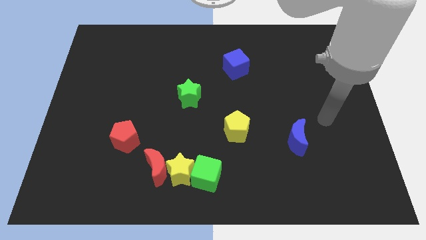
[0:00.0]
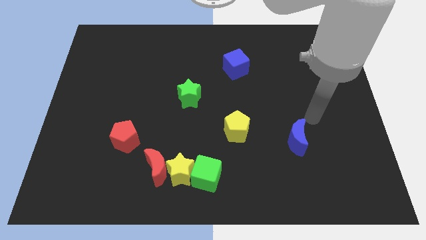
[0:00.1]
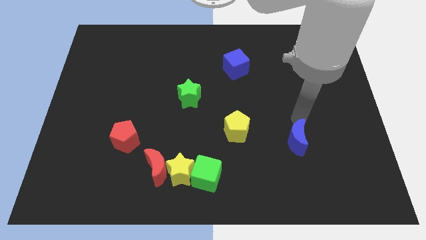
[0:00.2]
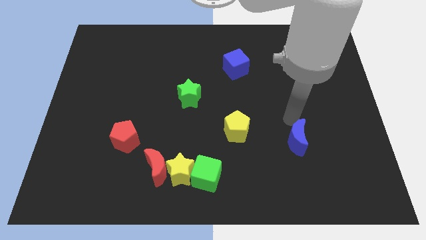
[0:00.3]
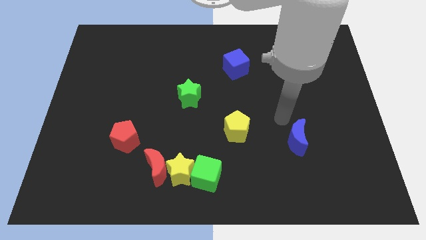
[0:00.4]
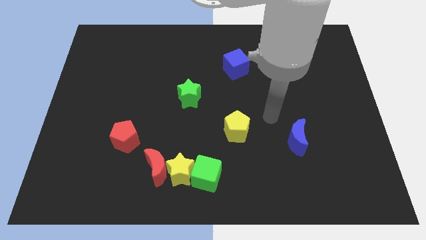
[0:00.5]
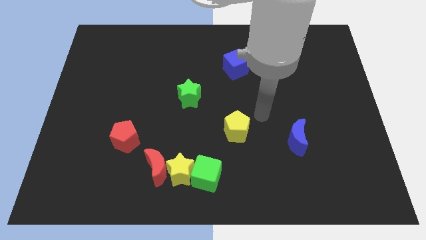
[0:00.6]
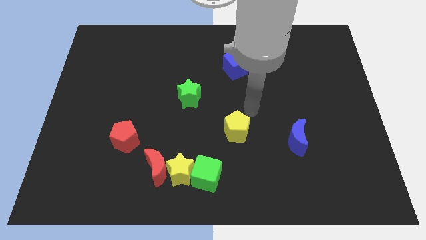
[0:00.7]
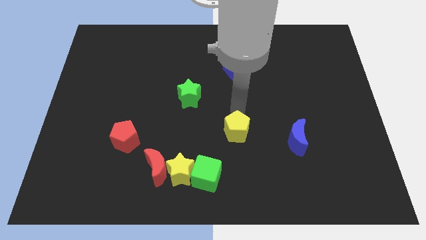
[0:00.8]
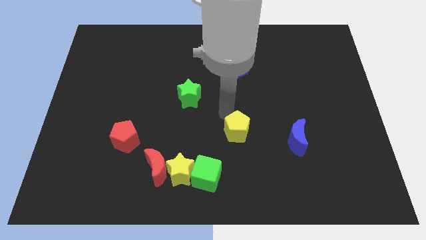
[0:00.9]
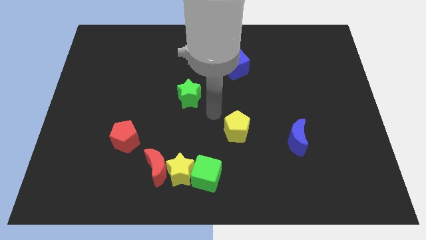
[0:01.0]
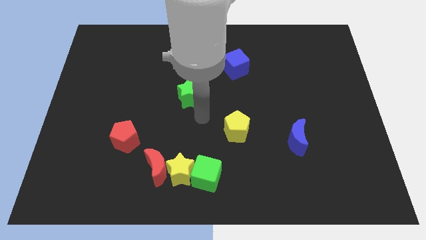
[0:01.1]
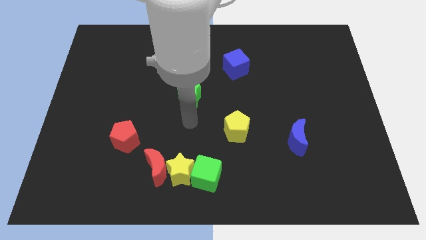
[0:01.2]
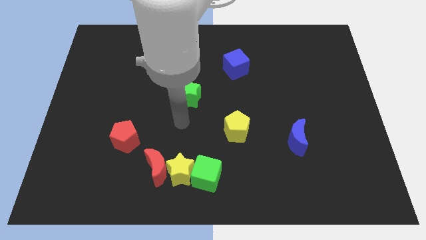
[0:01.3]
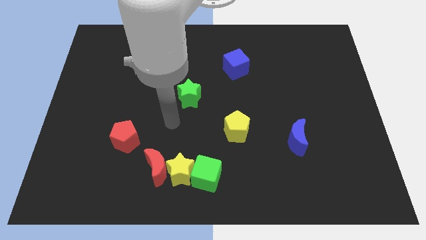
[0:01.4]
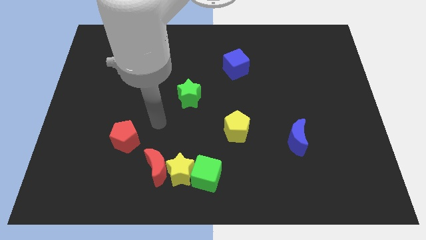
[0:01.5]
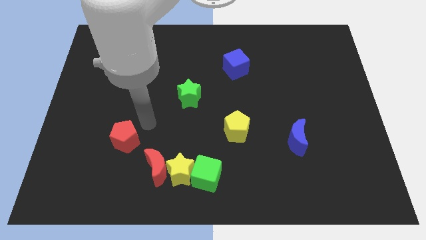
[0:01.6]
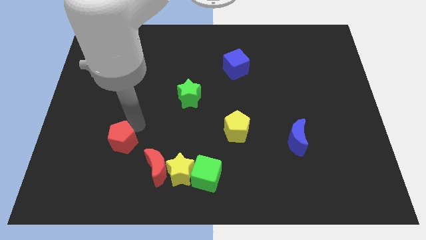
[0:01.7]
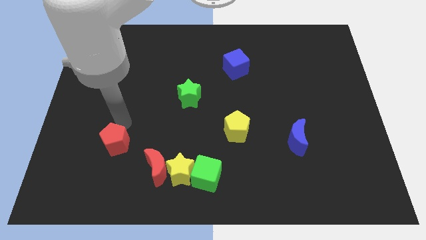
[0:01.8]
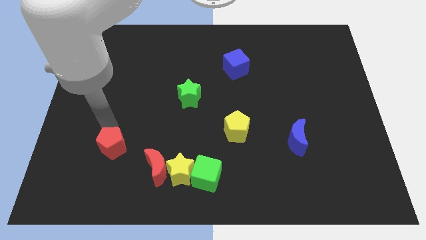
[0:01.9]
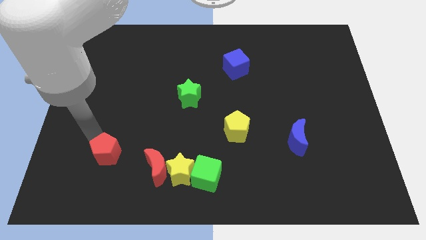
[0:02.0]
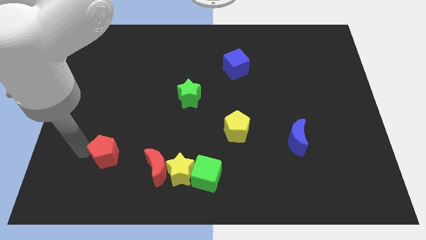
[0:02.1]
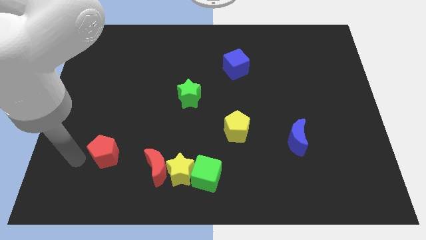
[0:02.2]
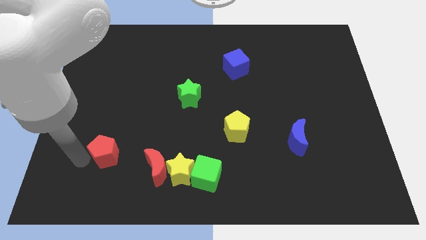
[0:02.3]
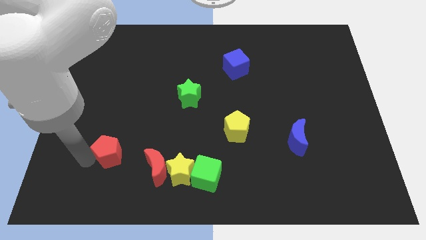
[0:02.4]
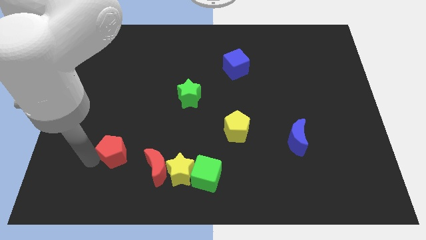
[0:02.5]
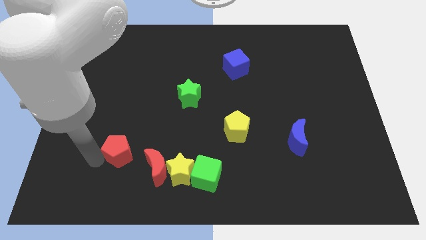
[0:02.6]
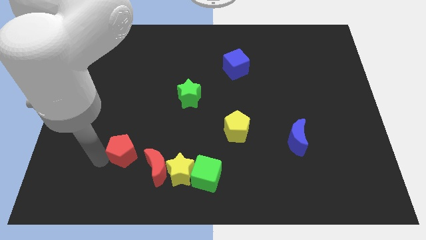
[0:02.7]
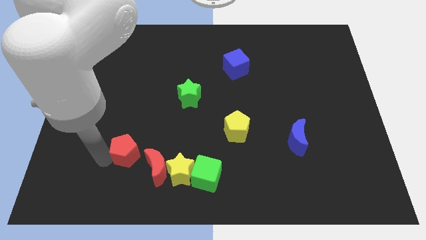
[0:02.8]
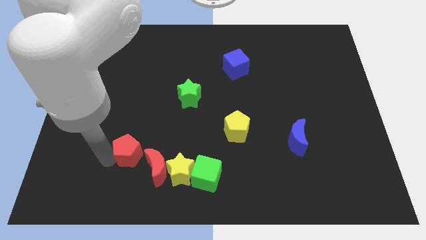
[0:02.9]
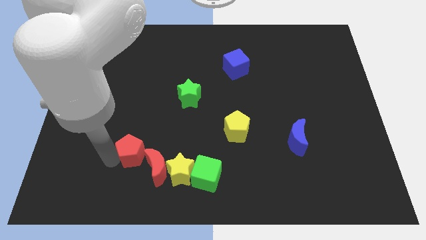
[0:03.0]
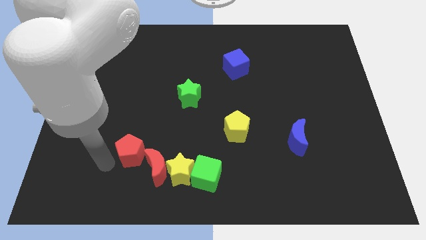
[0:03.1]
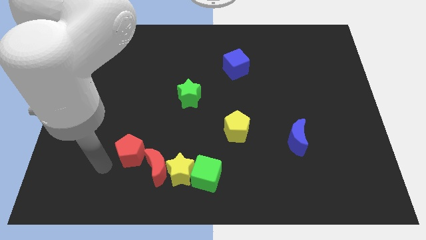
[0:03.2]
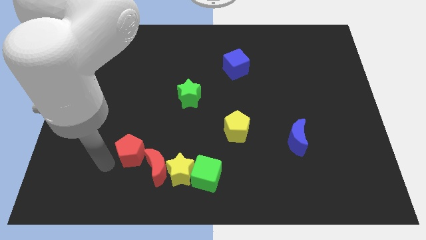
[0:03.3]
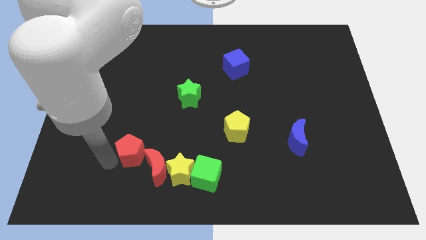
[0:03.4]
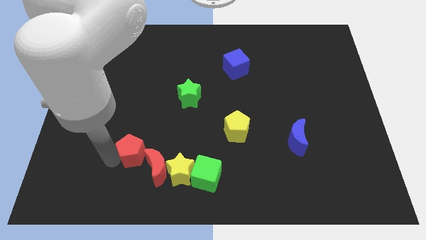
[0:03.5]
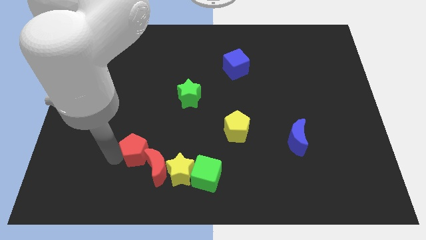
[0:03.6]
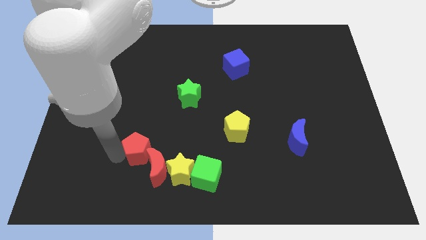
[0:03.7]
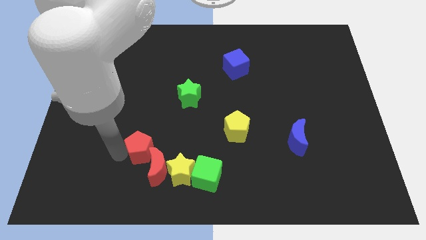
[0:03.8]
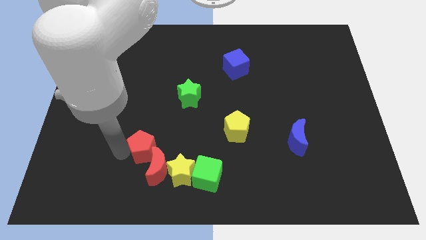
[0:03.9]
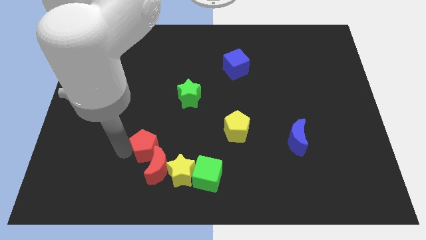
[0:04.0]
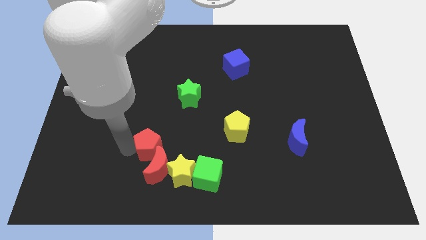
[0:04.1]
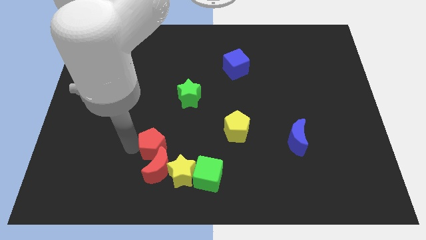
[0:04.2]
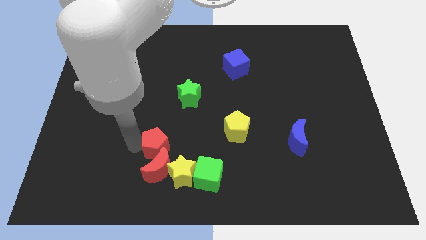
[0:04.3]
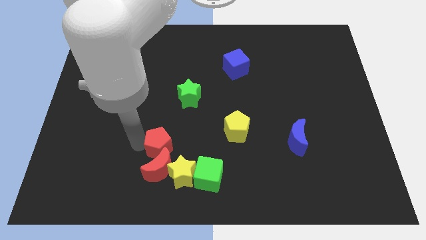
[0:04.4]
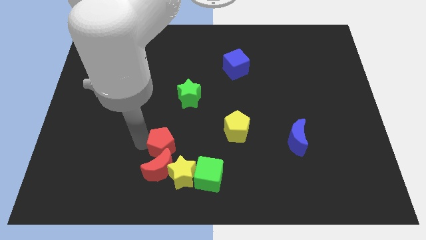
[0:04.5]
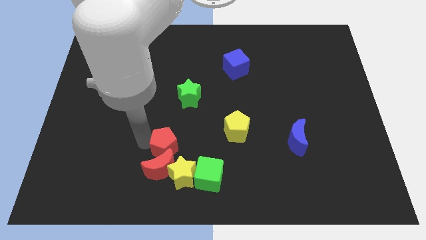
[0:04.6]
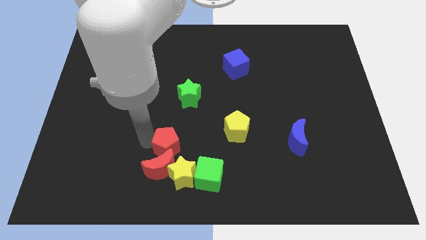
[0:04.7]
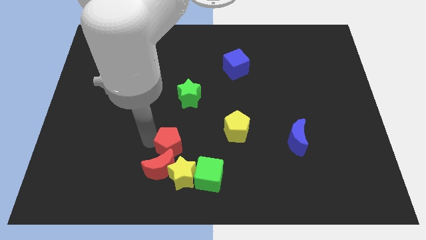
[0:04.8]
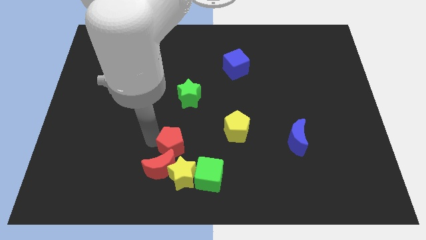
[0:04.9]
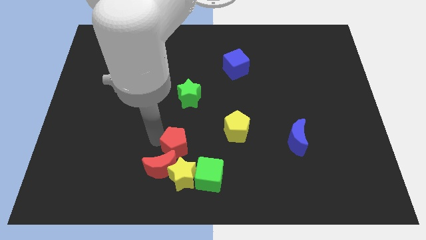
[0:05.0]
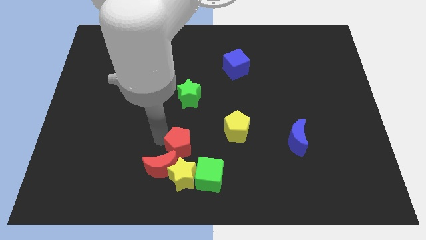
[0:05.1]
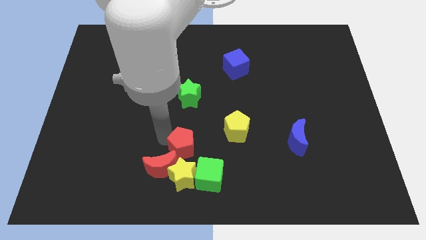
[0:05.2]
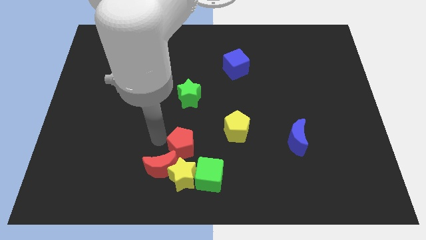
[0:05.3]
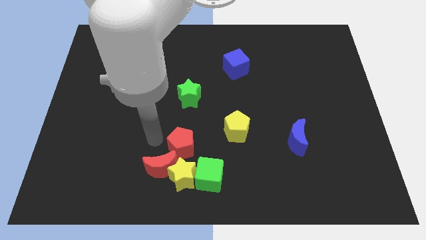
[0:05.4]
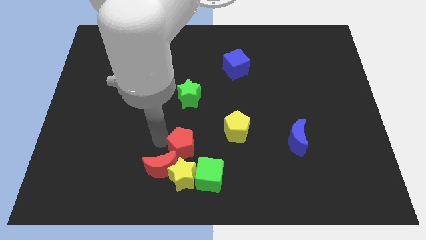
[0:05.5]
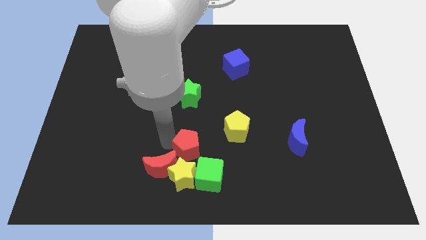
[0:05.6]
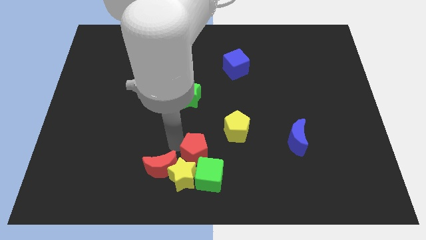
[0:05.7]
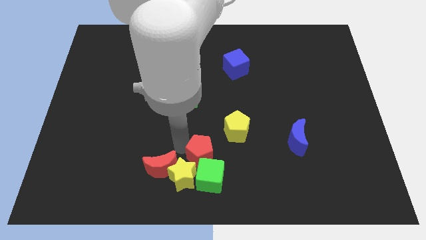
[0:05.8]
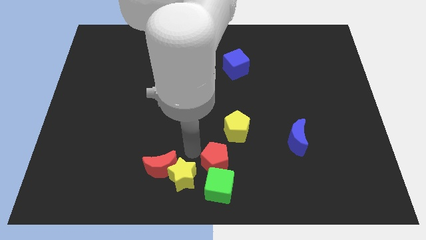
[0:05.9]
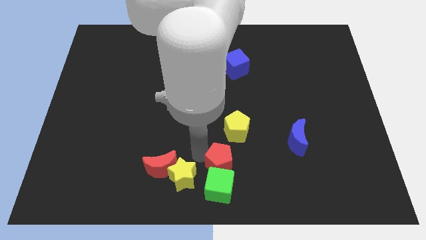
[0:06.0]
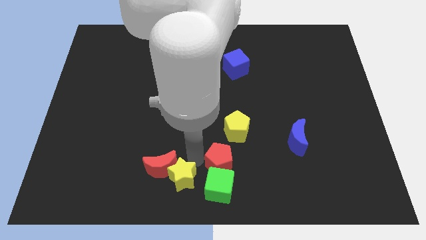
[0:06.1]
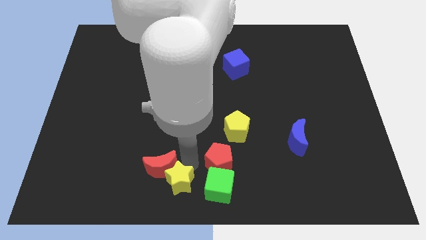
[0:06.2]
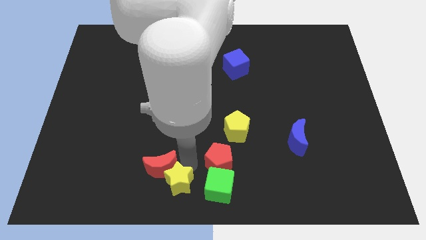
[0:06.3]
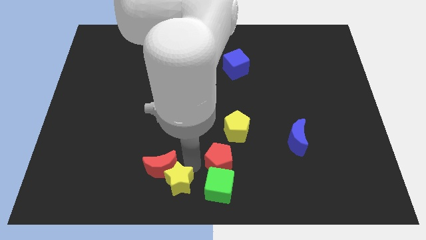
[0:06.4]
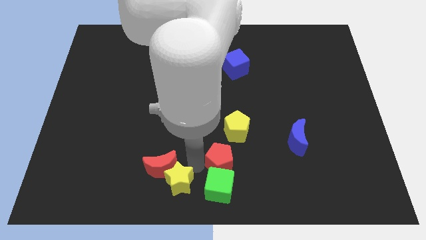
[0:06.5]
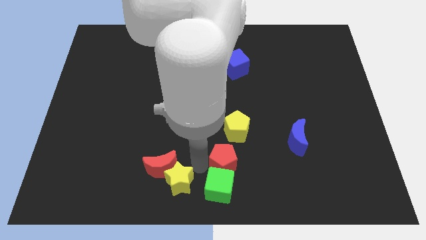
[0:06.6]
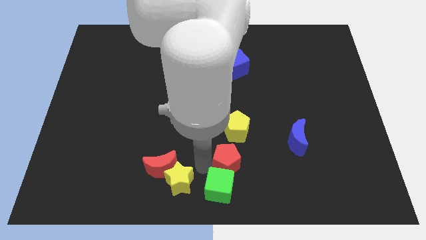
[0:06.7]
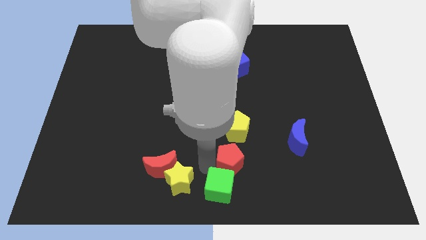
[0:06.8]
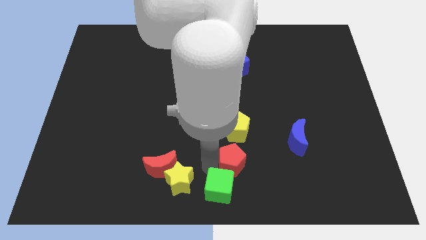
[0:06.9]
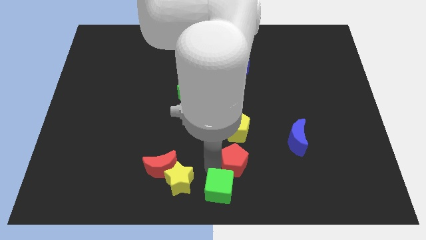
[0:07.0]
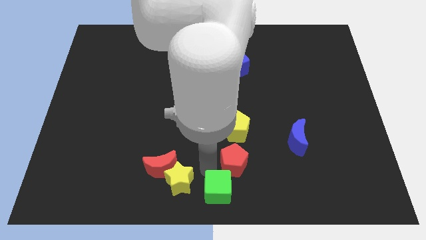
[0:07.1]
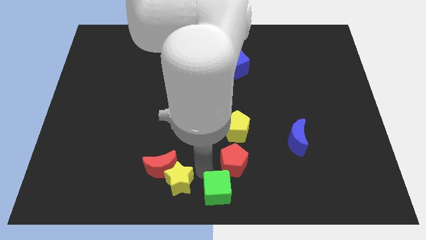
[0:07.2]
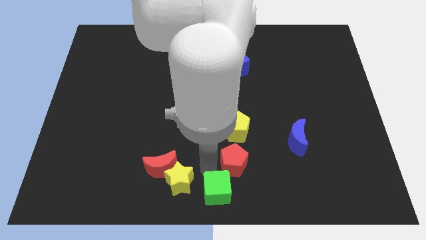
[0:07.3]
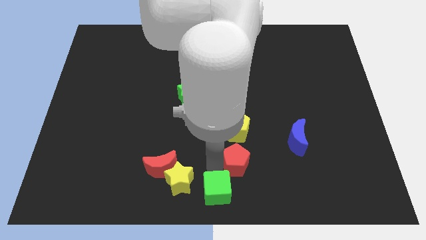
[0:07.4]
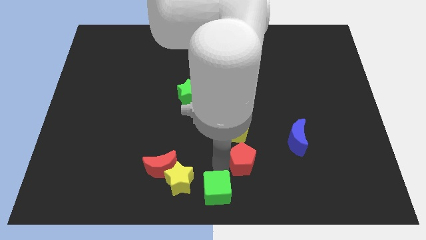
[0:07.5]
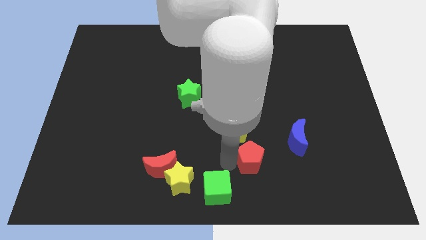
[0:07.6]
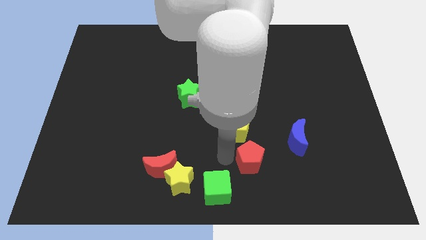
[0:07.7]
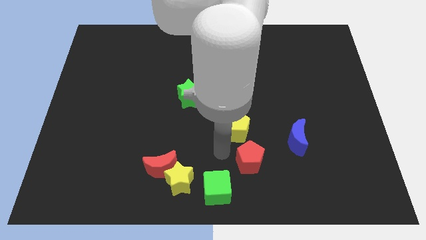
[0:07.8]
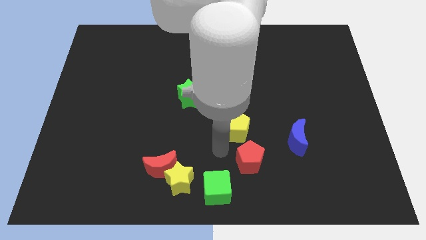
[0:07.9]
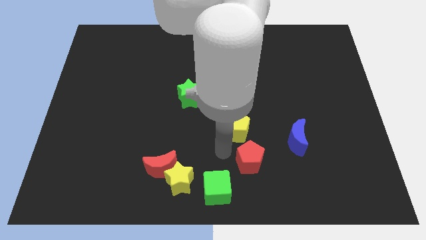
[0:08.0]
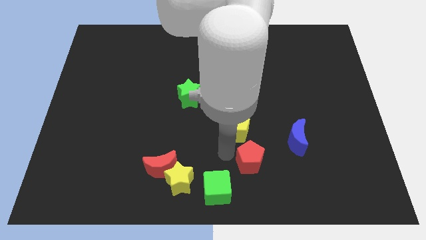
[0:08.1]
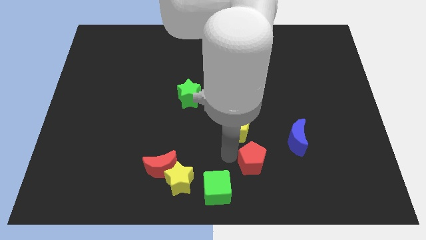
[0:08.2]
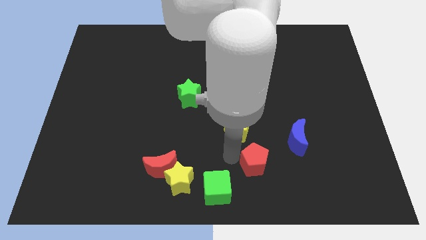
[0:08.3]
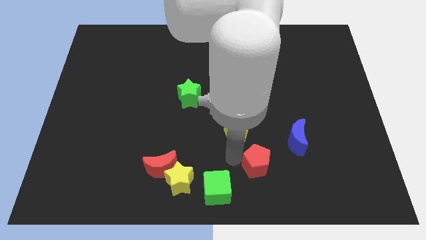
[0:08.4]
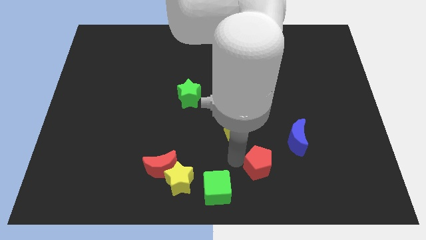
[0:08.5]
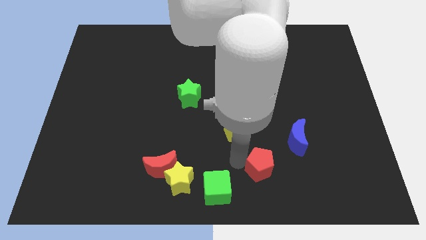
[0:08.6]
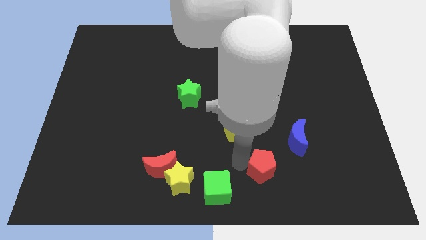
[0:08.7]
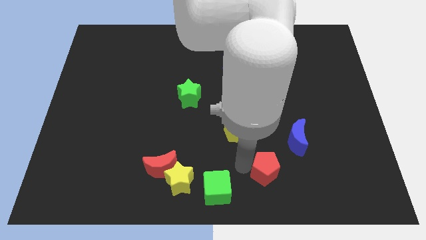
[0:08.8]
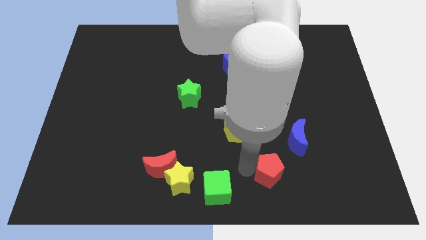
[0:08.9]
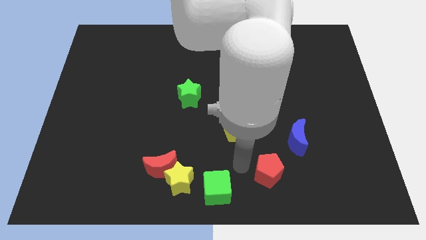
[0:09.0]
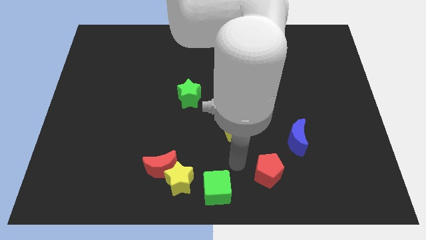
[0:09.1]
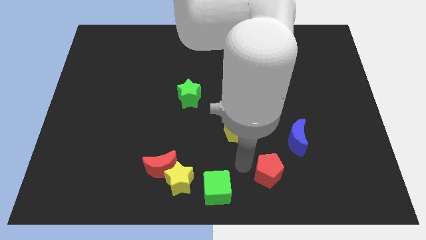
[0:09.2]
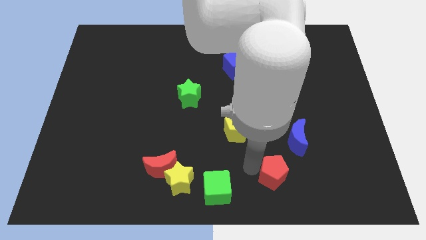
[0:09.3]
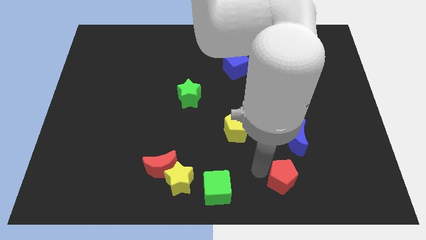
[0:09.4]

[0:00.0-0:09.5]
push the red pentagon below the blue moon
